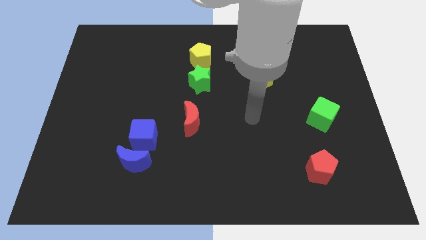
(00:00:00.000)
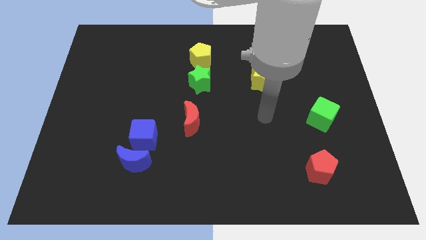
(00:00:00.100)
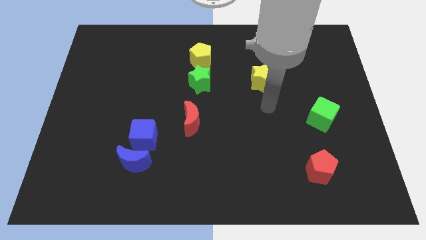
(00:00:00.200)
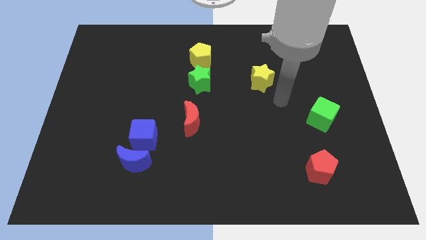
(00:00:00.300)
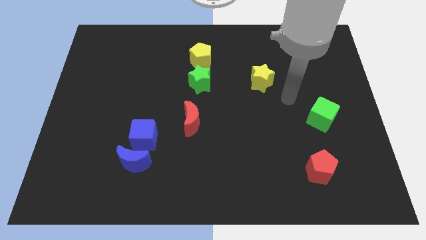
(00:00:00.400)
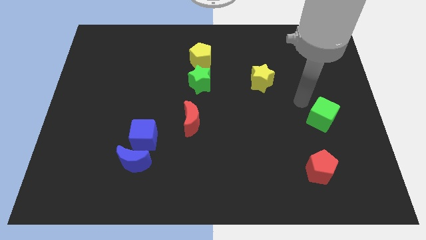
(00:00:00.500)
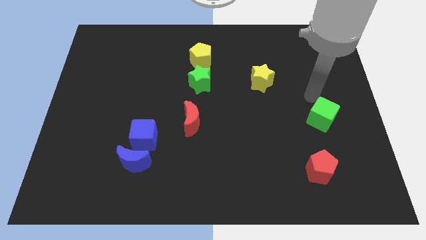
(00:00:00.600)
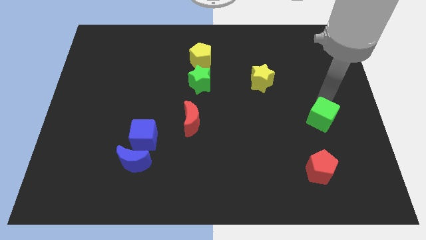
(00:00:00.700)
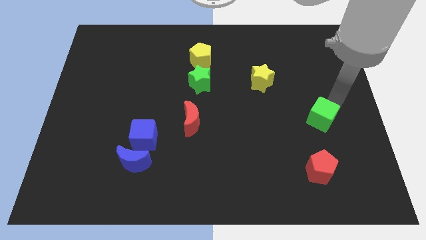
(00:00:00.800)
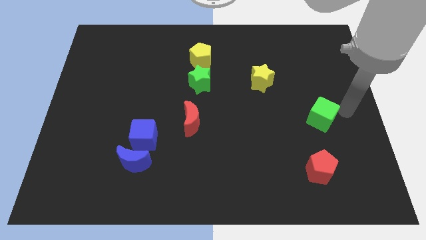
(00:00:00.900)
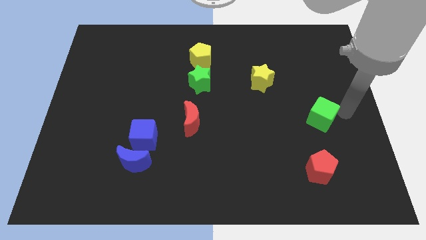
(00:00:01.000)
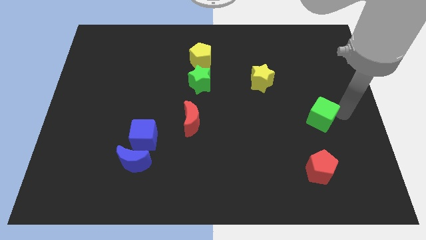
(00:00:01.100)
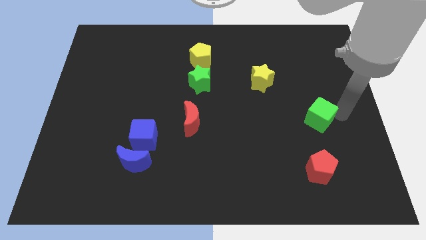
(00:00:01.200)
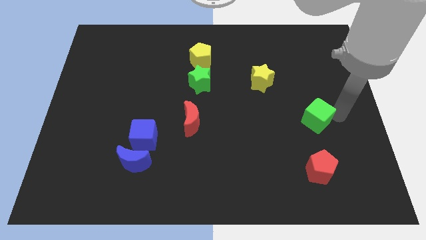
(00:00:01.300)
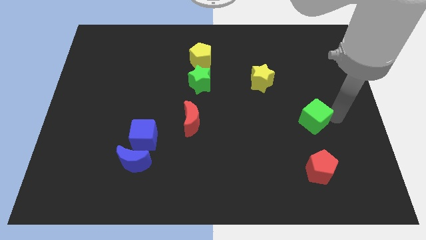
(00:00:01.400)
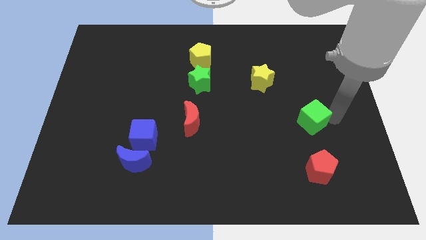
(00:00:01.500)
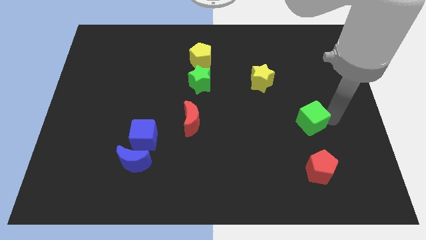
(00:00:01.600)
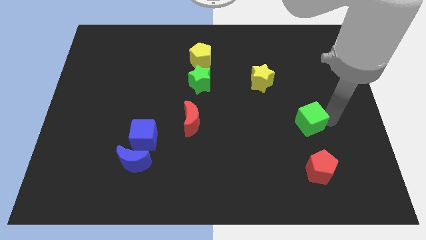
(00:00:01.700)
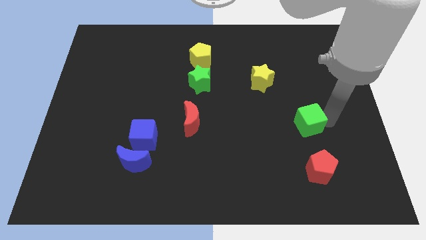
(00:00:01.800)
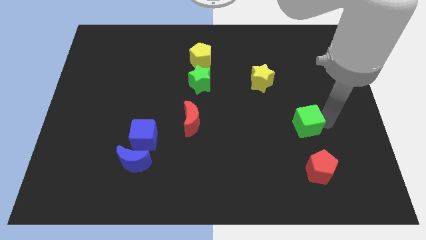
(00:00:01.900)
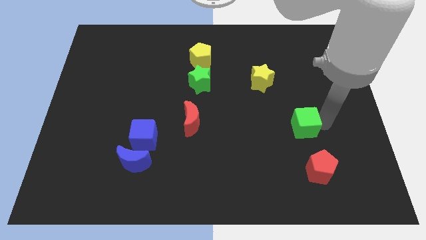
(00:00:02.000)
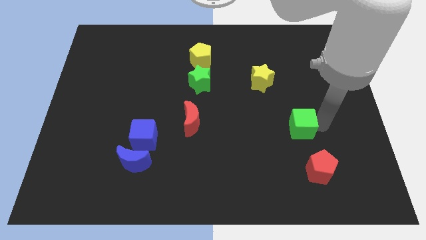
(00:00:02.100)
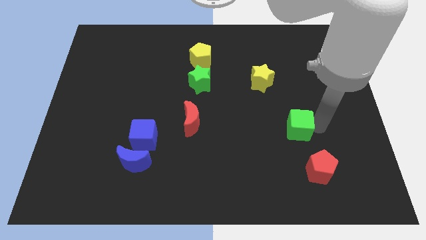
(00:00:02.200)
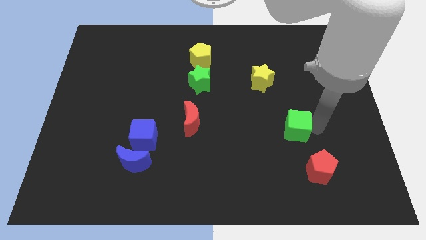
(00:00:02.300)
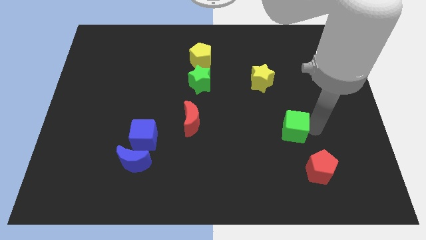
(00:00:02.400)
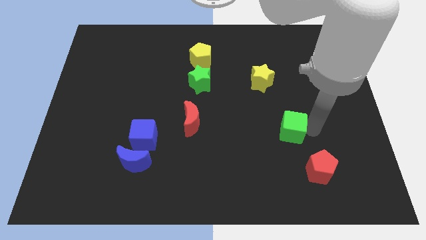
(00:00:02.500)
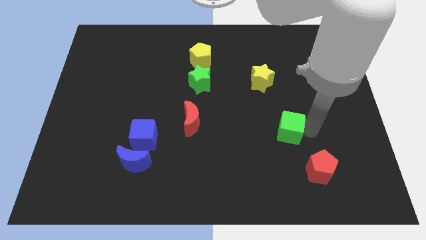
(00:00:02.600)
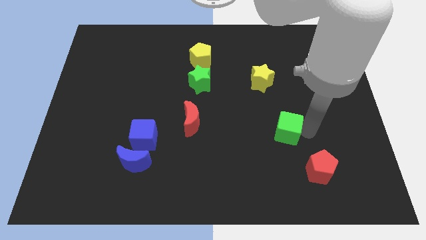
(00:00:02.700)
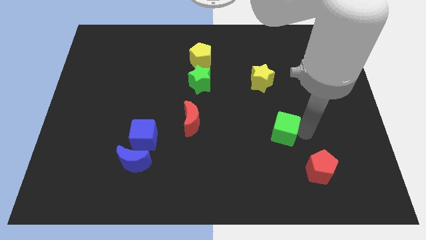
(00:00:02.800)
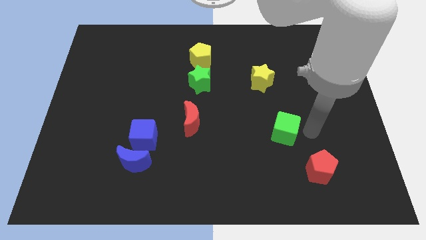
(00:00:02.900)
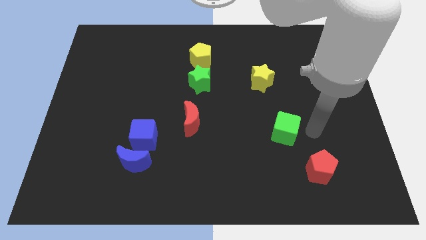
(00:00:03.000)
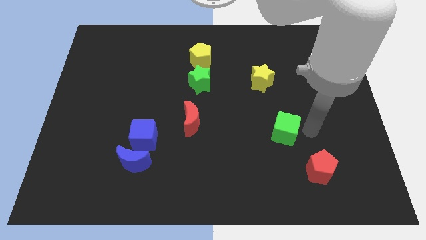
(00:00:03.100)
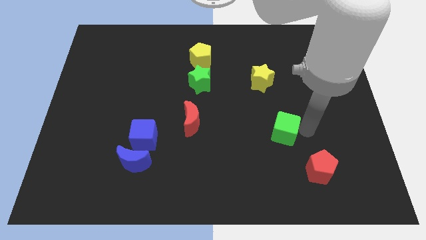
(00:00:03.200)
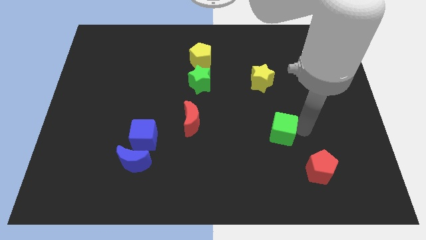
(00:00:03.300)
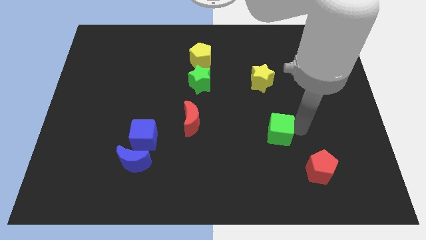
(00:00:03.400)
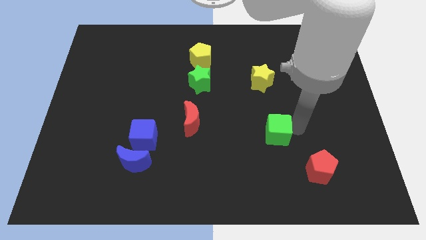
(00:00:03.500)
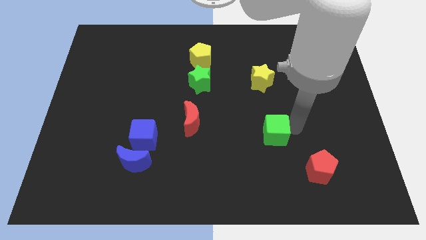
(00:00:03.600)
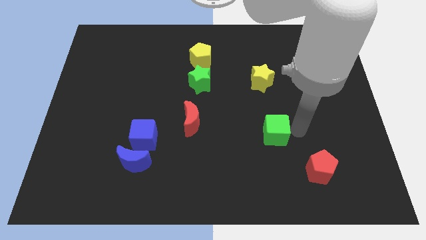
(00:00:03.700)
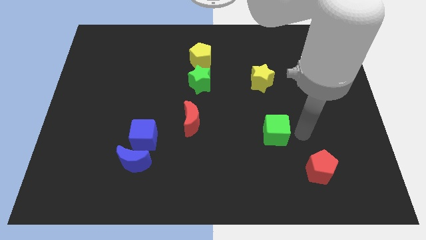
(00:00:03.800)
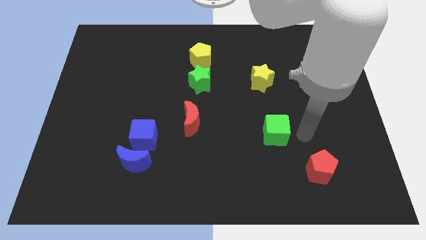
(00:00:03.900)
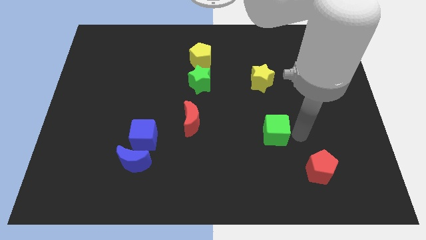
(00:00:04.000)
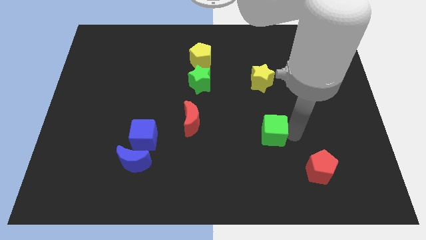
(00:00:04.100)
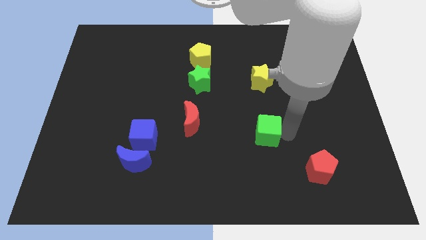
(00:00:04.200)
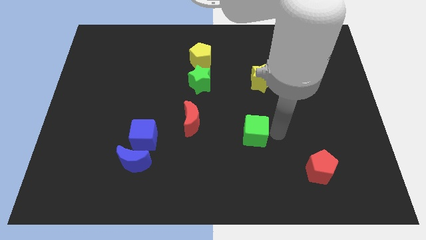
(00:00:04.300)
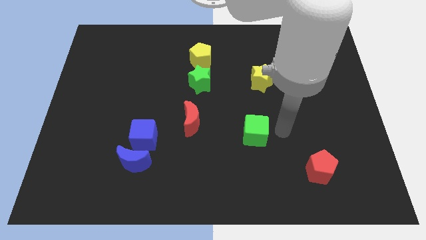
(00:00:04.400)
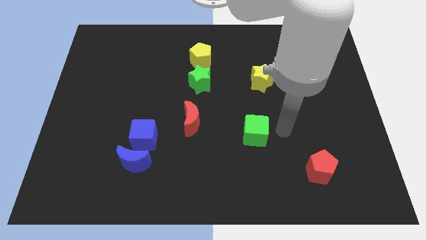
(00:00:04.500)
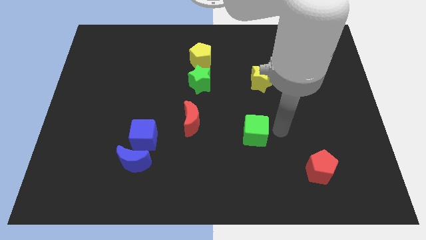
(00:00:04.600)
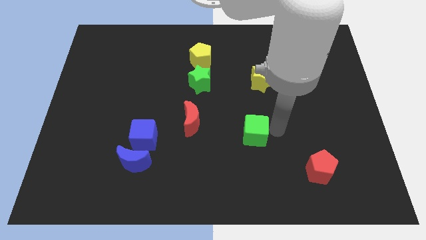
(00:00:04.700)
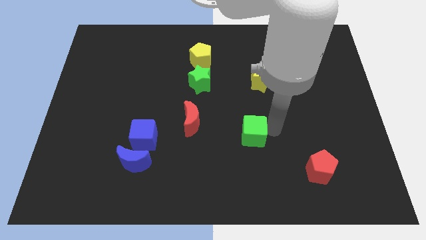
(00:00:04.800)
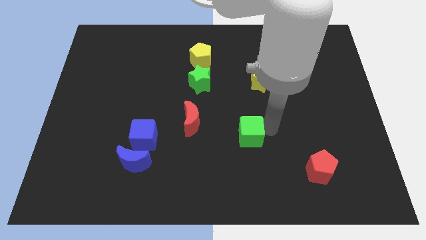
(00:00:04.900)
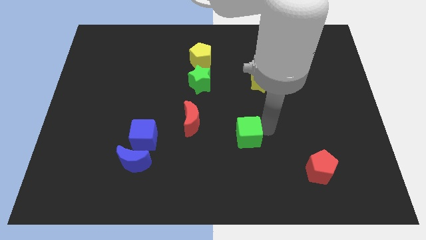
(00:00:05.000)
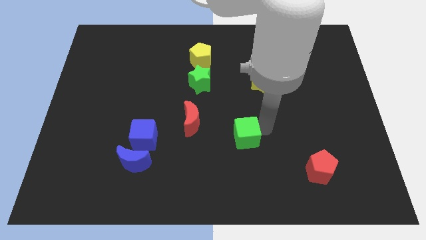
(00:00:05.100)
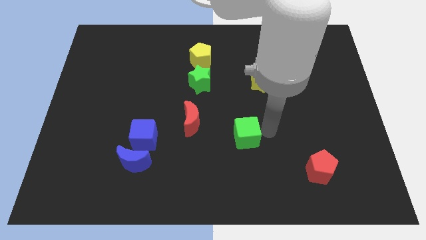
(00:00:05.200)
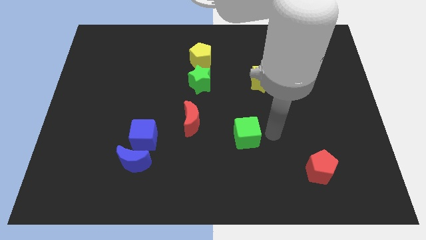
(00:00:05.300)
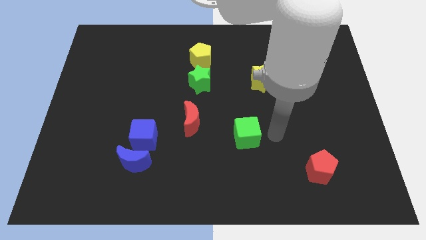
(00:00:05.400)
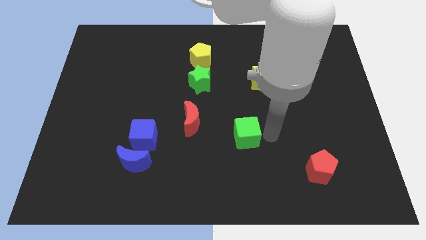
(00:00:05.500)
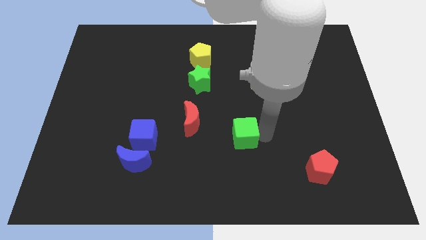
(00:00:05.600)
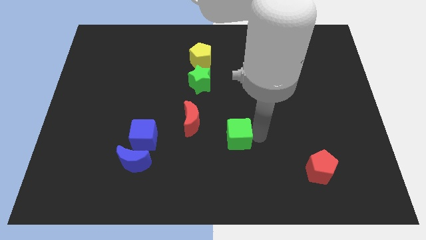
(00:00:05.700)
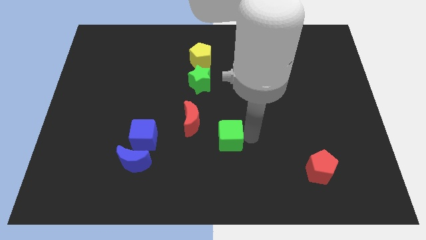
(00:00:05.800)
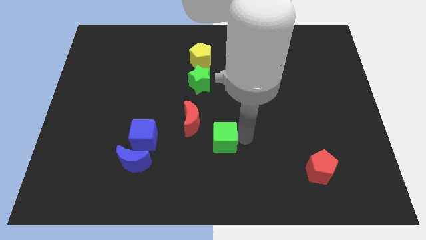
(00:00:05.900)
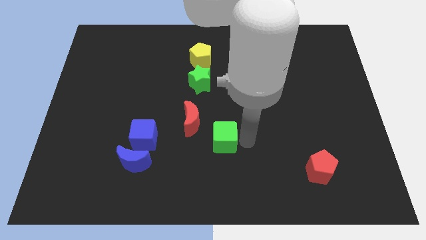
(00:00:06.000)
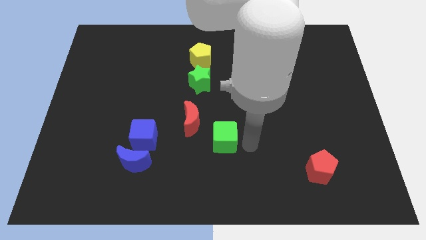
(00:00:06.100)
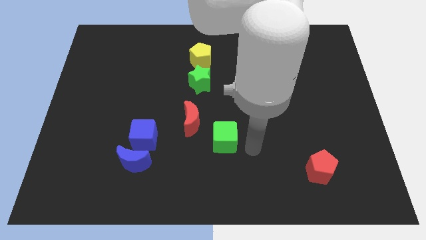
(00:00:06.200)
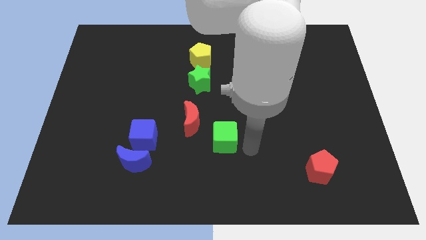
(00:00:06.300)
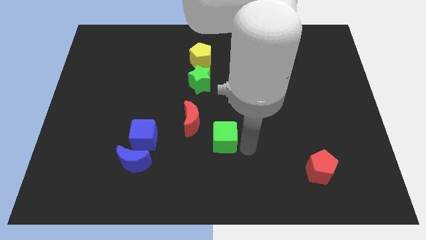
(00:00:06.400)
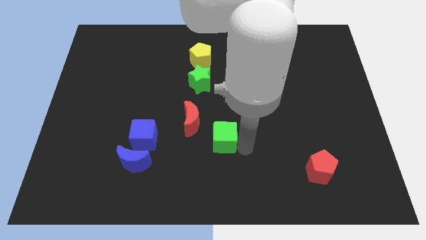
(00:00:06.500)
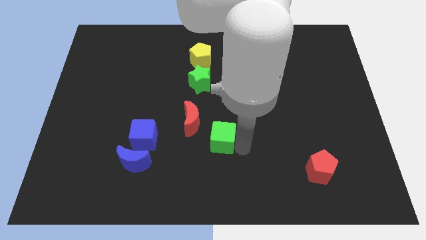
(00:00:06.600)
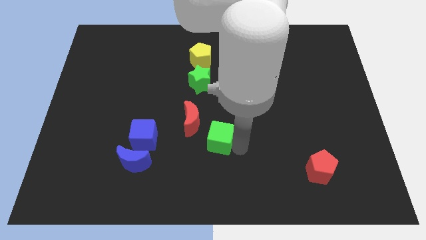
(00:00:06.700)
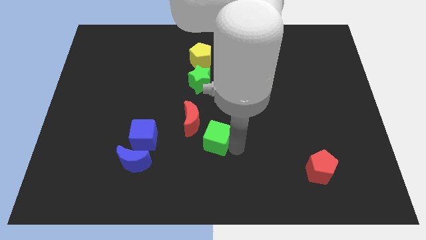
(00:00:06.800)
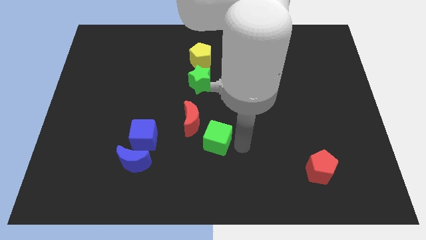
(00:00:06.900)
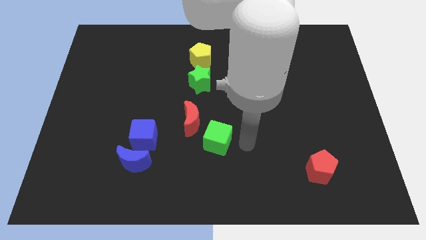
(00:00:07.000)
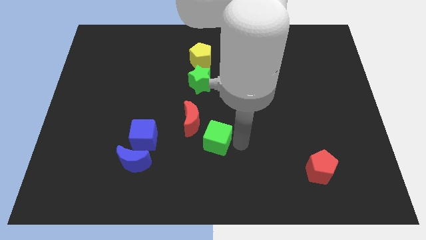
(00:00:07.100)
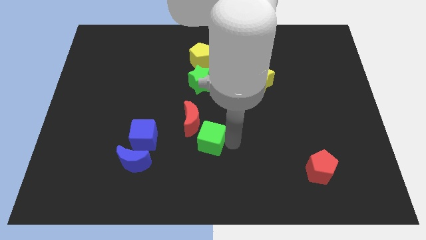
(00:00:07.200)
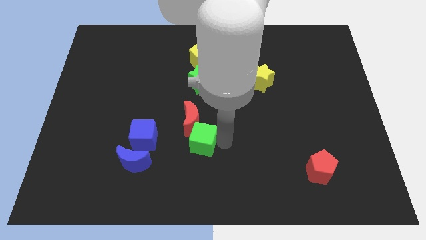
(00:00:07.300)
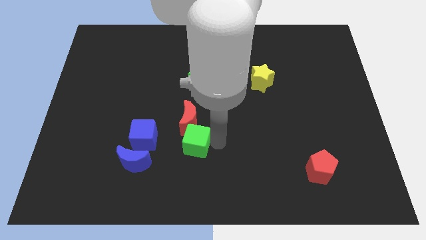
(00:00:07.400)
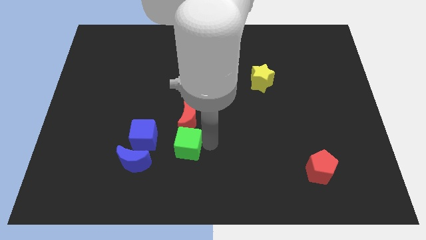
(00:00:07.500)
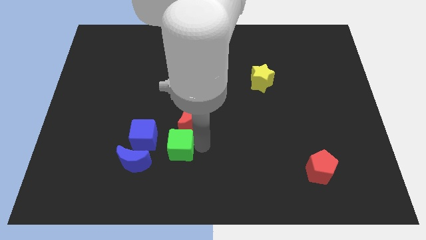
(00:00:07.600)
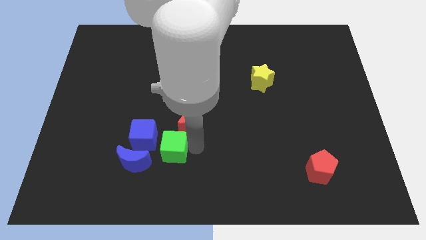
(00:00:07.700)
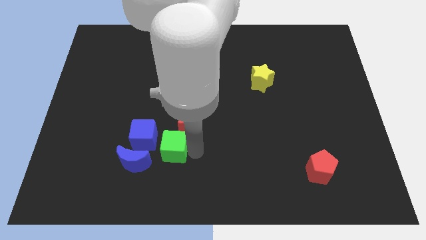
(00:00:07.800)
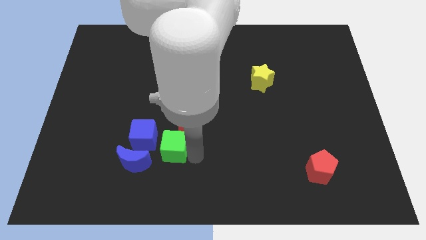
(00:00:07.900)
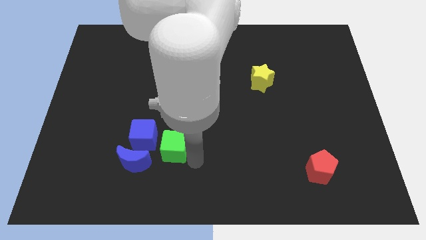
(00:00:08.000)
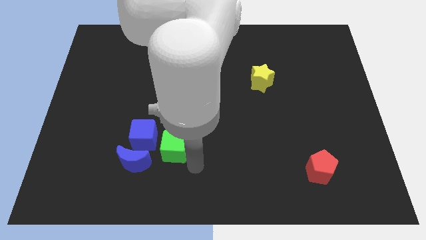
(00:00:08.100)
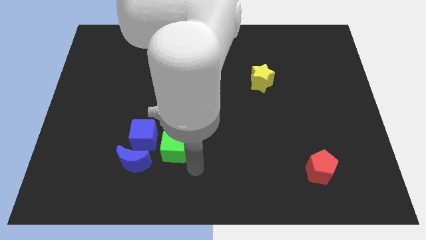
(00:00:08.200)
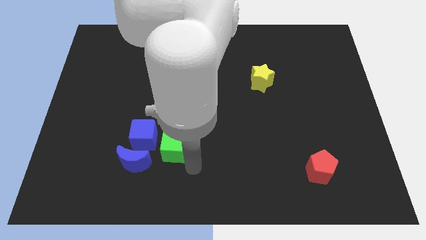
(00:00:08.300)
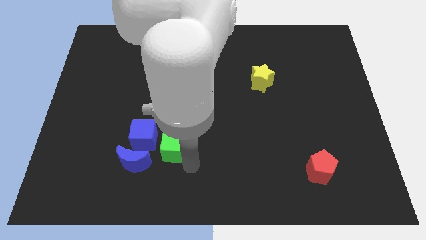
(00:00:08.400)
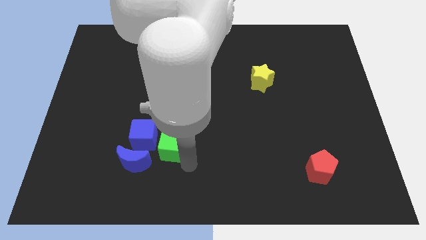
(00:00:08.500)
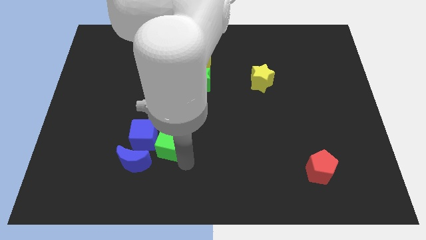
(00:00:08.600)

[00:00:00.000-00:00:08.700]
put the green cube close to the blue cube
